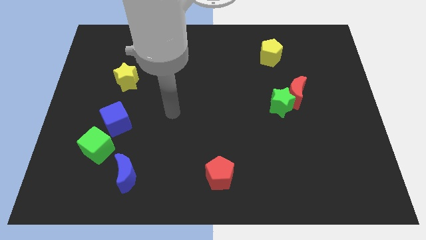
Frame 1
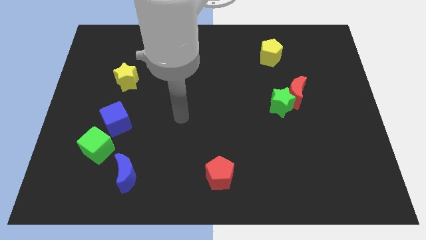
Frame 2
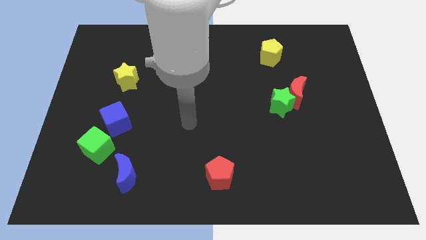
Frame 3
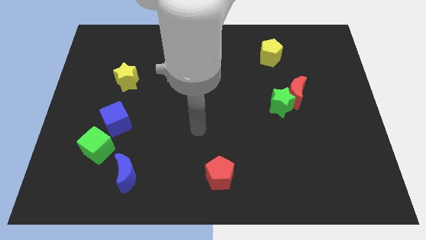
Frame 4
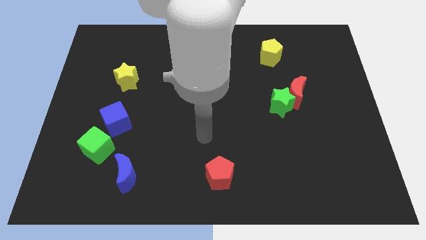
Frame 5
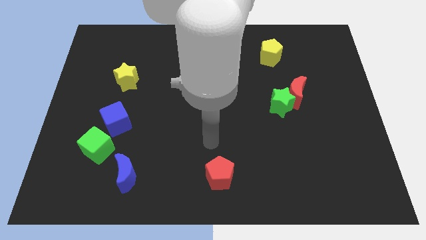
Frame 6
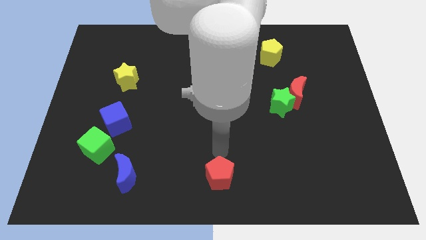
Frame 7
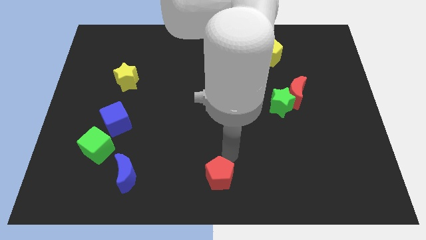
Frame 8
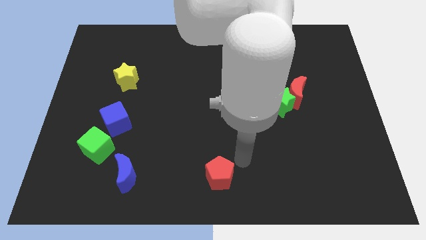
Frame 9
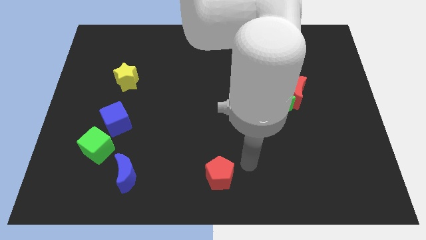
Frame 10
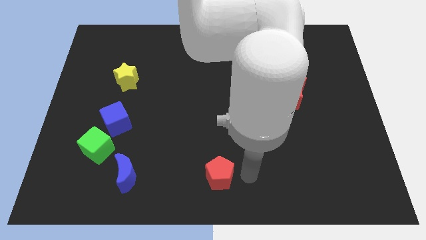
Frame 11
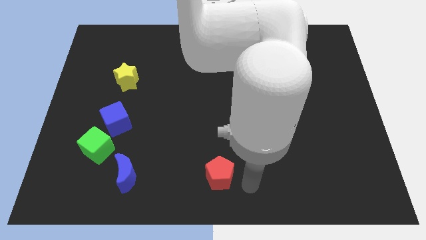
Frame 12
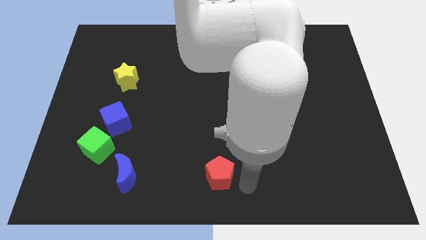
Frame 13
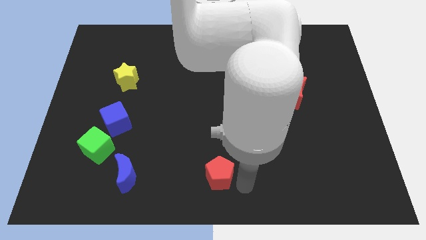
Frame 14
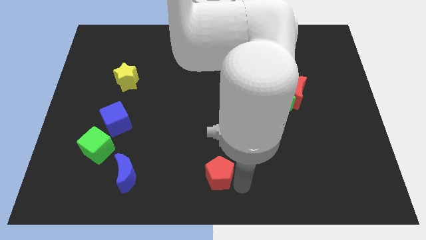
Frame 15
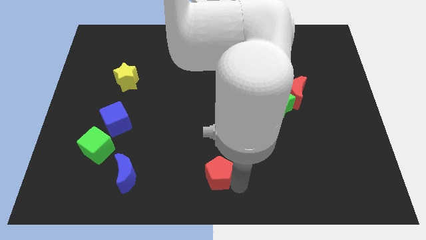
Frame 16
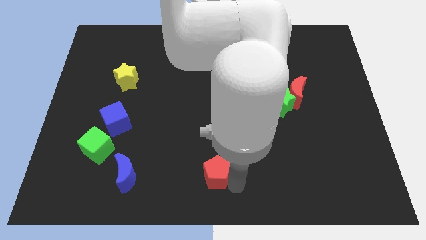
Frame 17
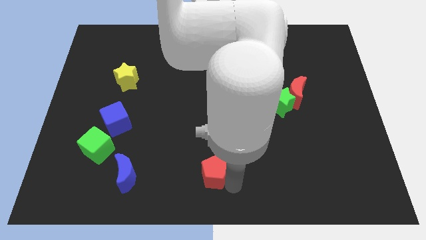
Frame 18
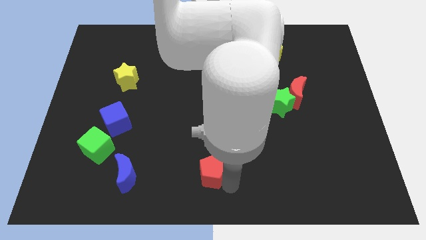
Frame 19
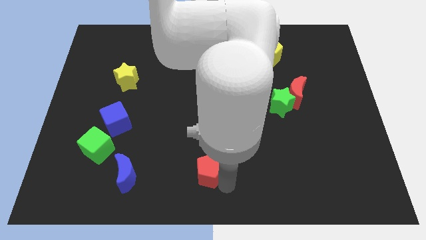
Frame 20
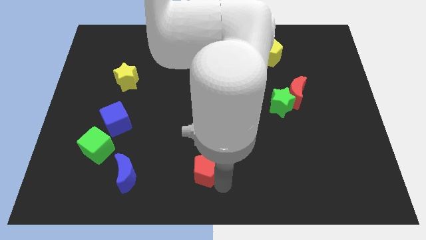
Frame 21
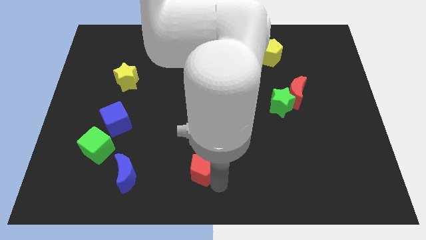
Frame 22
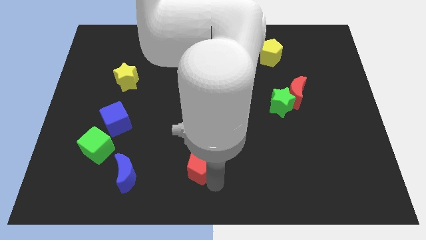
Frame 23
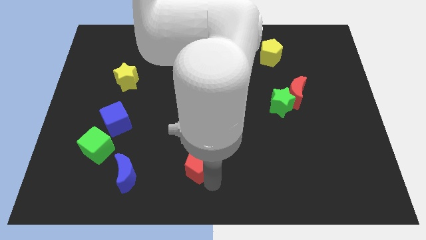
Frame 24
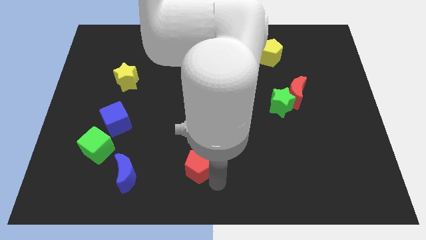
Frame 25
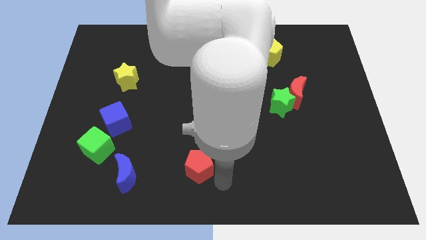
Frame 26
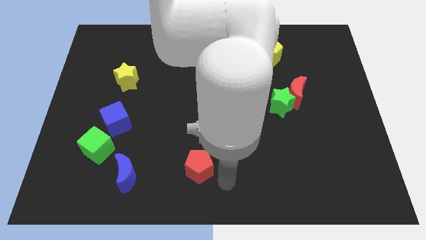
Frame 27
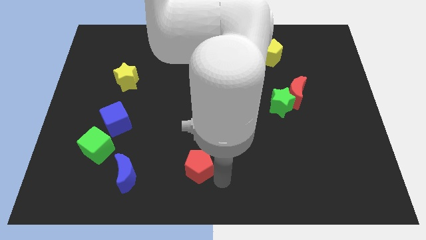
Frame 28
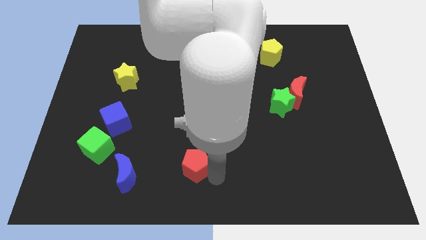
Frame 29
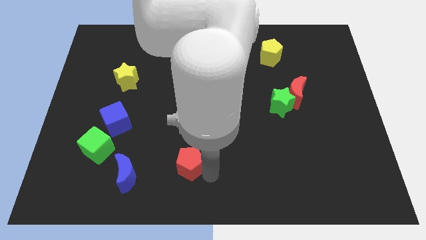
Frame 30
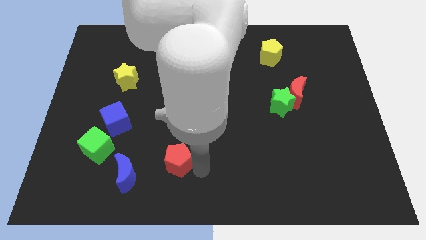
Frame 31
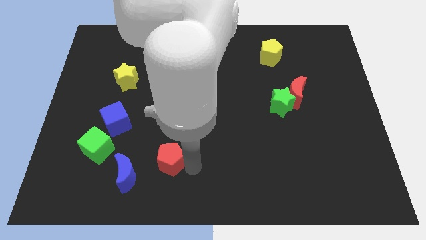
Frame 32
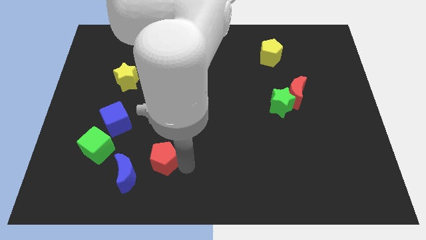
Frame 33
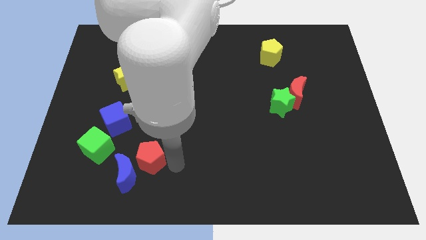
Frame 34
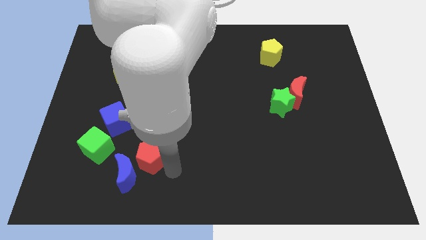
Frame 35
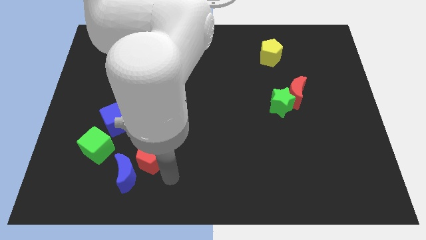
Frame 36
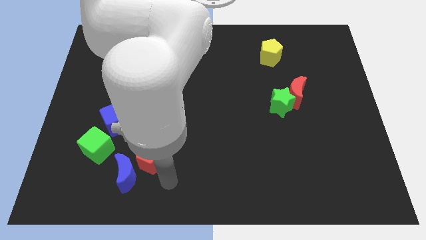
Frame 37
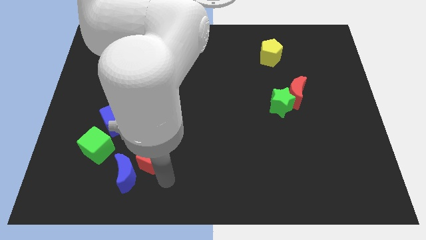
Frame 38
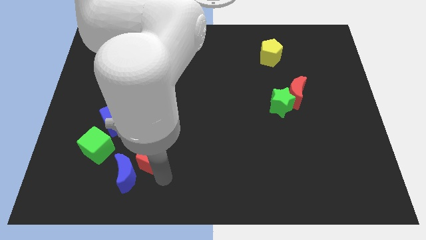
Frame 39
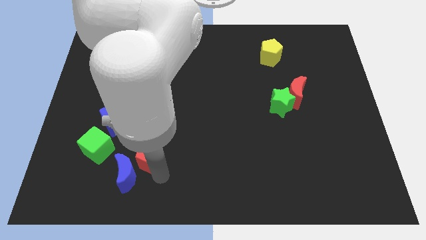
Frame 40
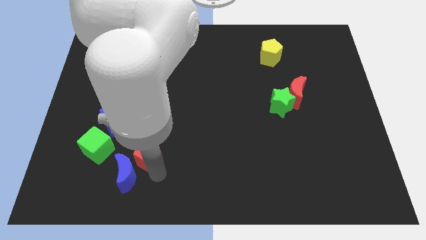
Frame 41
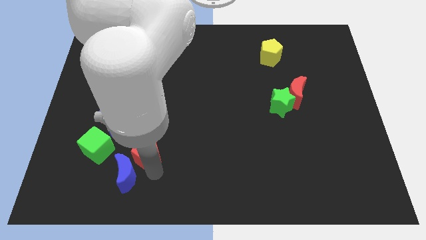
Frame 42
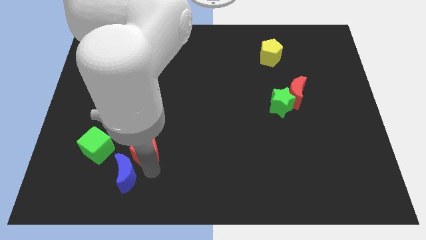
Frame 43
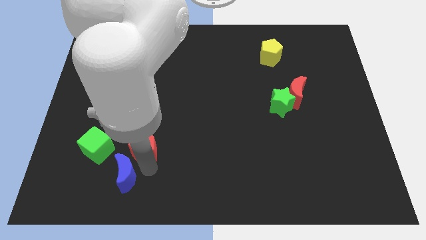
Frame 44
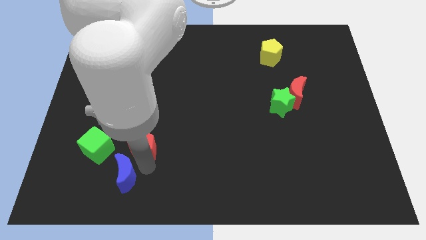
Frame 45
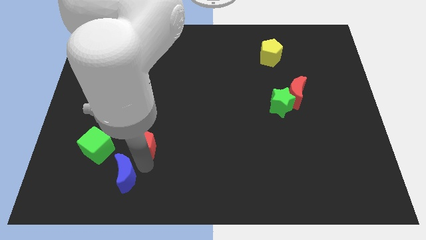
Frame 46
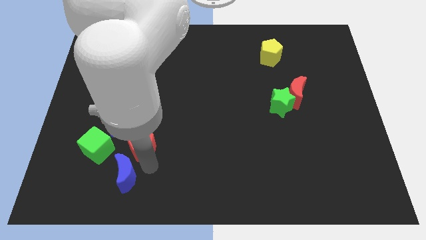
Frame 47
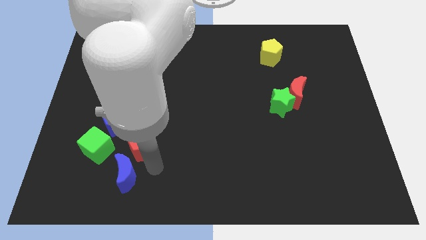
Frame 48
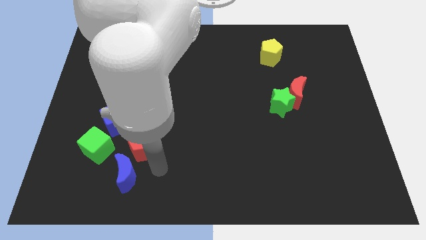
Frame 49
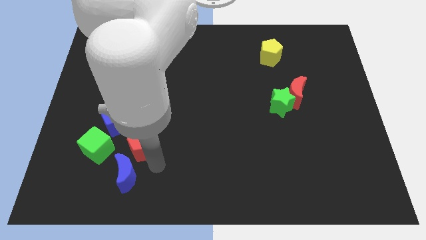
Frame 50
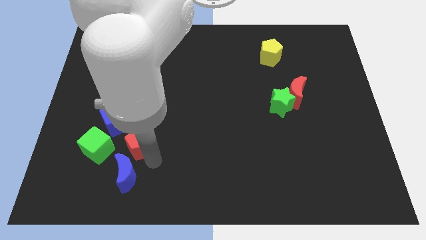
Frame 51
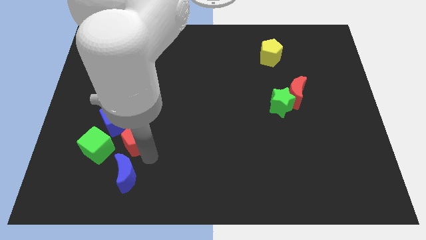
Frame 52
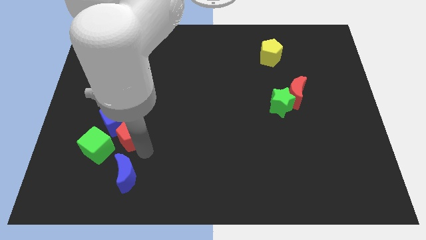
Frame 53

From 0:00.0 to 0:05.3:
put the red pentagon towards the blue cube

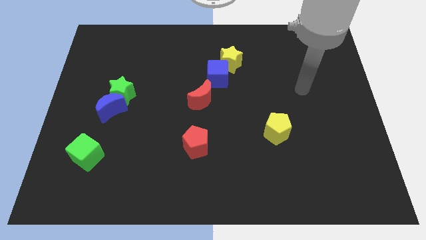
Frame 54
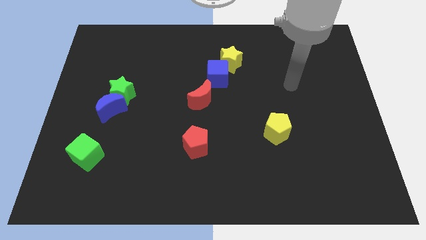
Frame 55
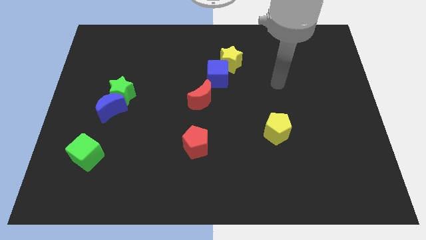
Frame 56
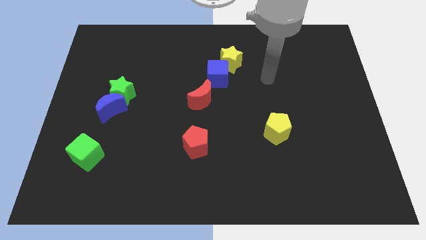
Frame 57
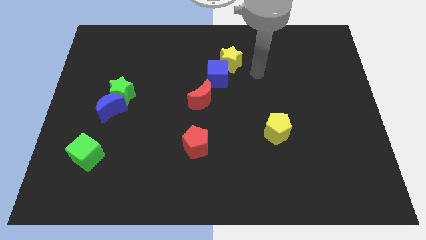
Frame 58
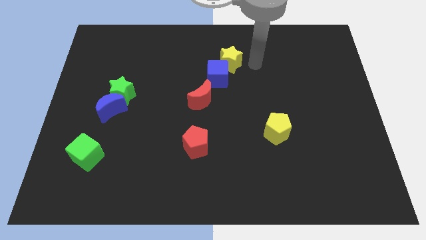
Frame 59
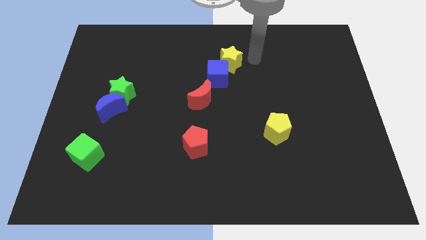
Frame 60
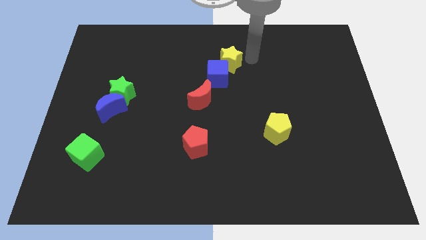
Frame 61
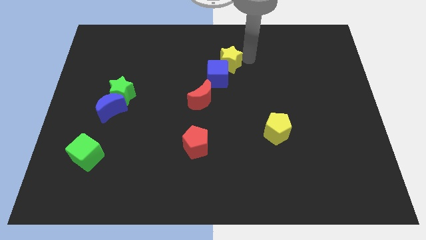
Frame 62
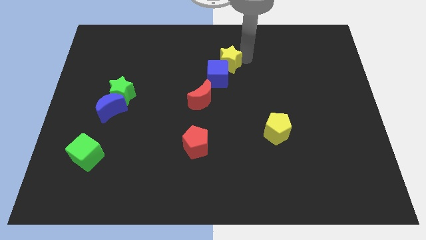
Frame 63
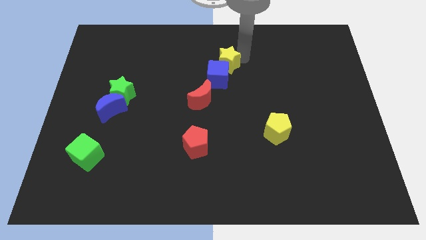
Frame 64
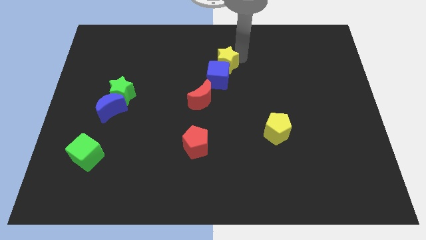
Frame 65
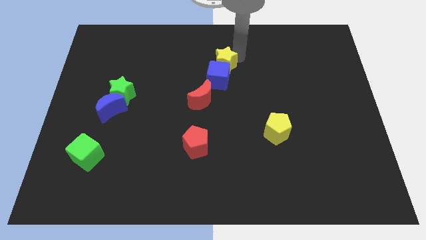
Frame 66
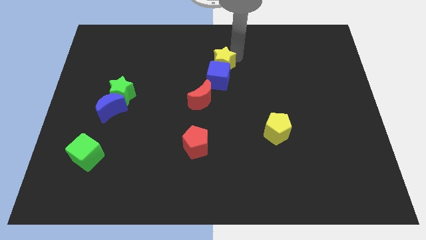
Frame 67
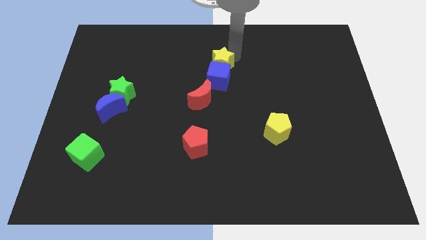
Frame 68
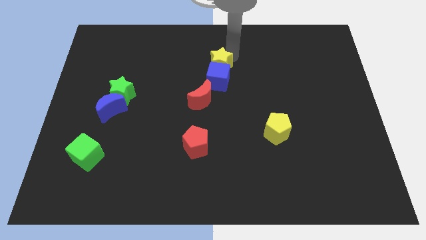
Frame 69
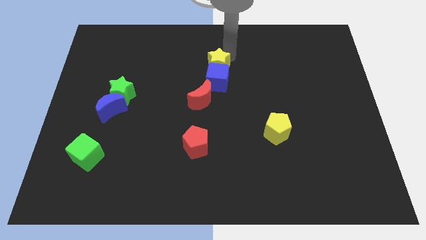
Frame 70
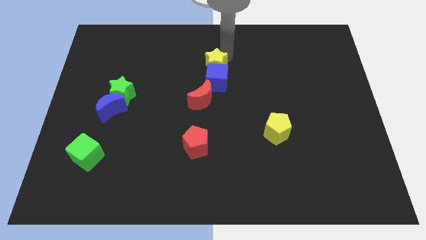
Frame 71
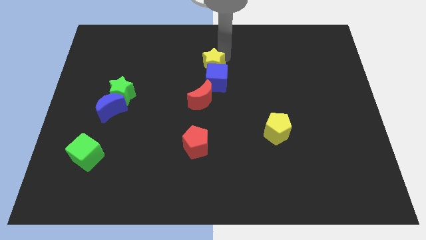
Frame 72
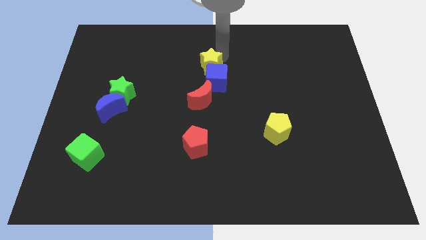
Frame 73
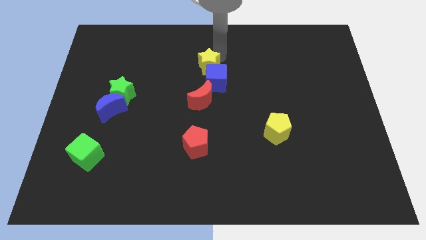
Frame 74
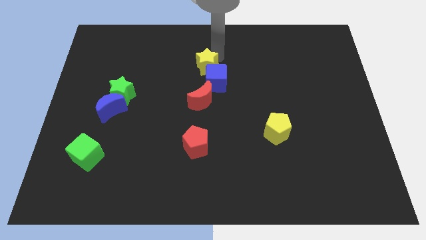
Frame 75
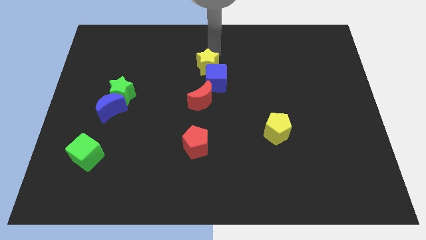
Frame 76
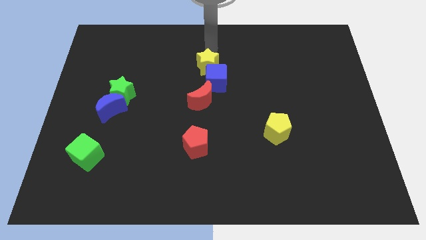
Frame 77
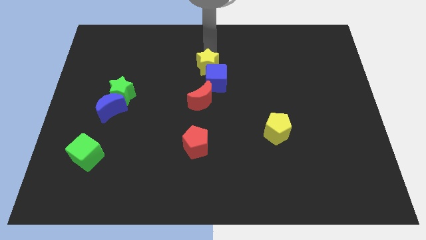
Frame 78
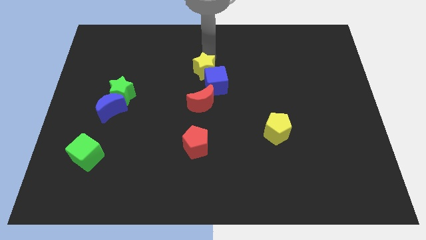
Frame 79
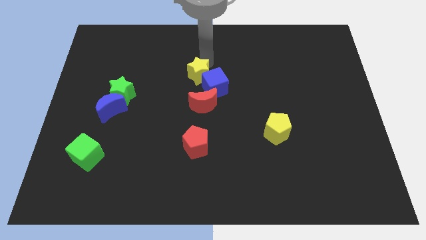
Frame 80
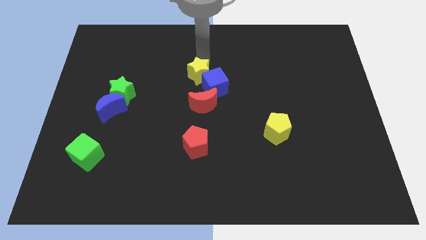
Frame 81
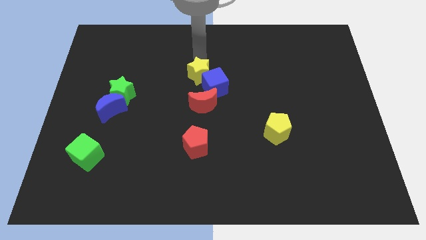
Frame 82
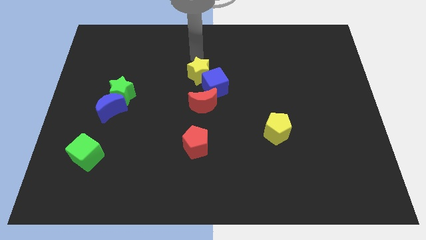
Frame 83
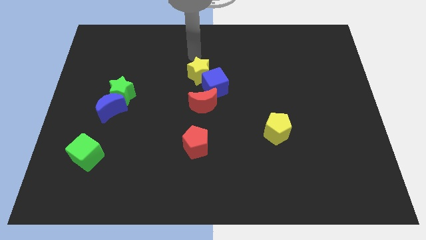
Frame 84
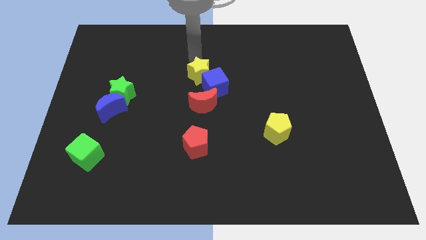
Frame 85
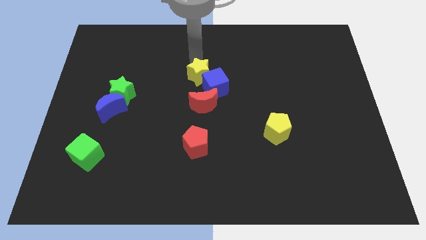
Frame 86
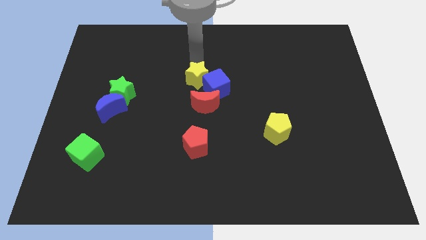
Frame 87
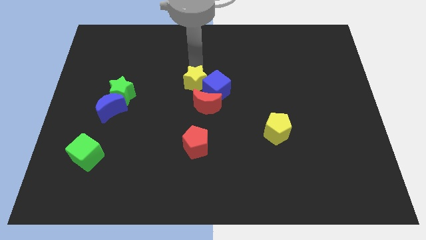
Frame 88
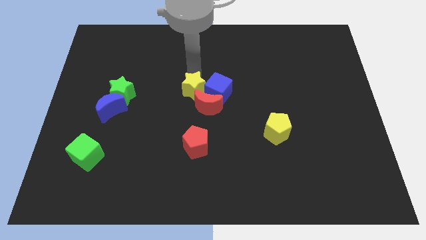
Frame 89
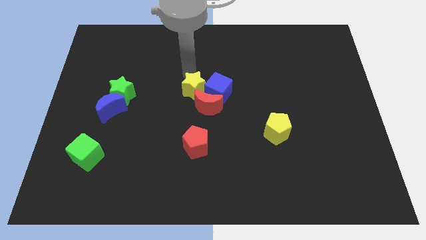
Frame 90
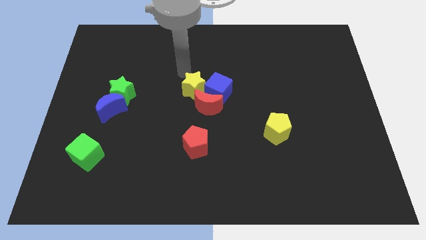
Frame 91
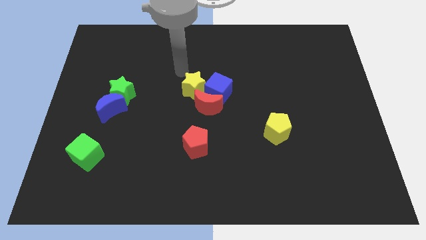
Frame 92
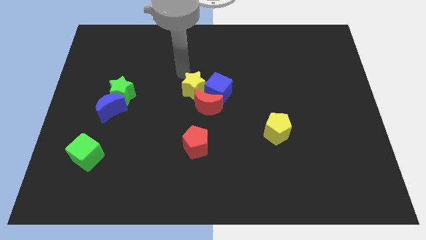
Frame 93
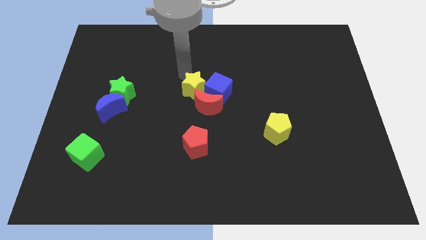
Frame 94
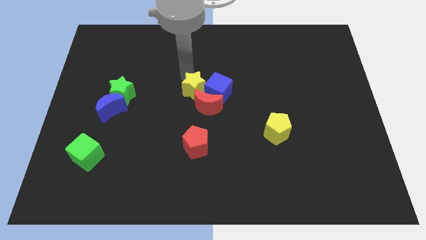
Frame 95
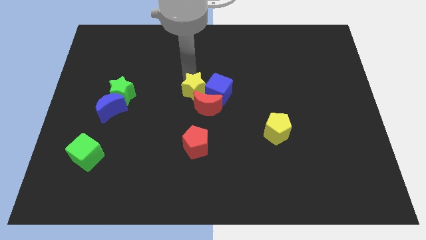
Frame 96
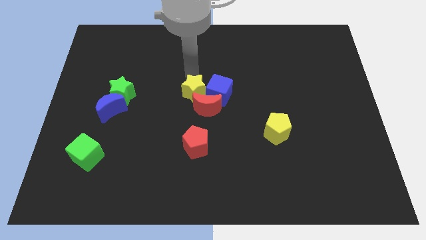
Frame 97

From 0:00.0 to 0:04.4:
move the yellow star towards the red moon
